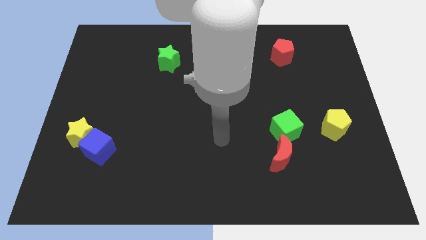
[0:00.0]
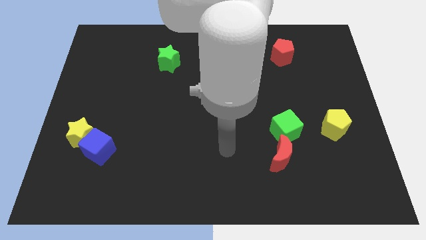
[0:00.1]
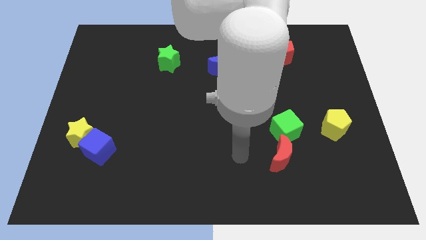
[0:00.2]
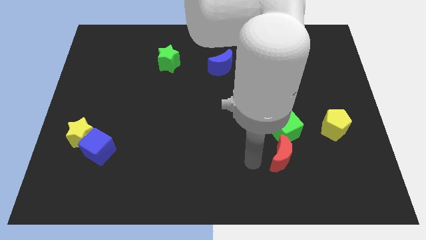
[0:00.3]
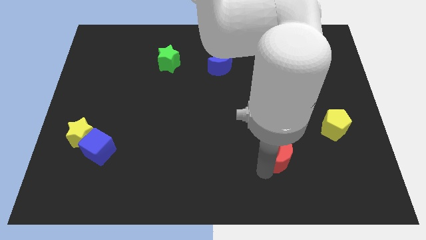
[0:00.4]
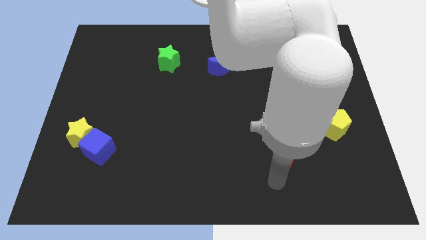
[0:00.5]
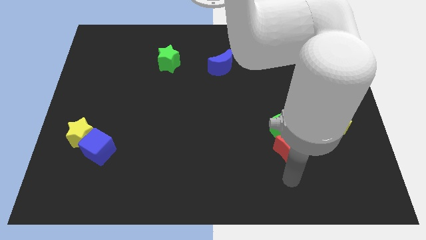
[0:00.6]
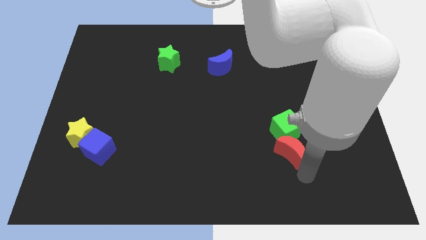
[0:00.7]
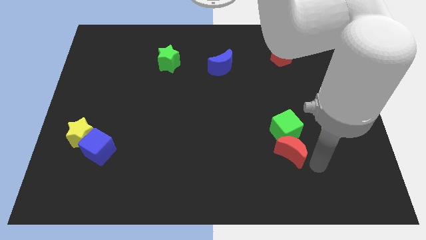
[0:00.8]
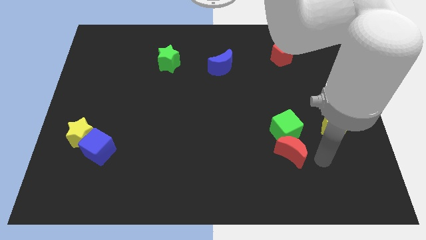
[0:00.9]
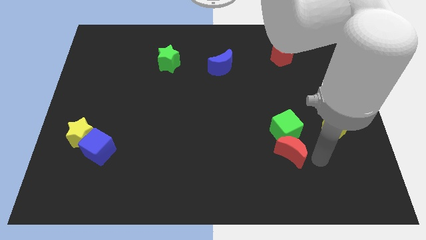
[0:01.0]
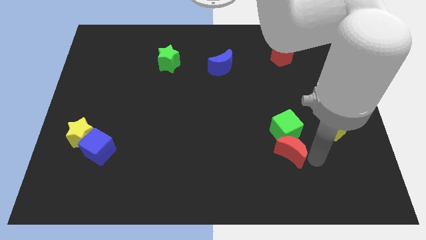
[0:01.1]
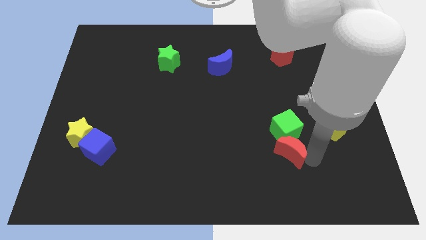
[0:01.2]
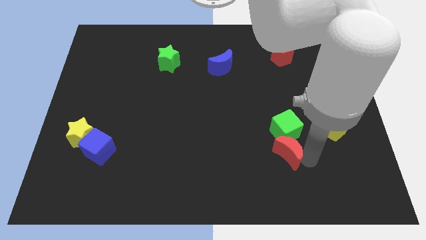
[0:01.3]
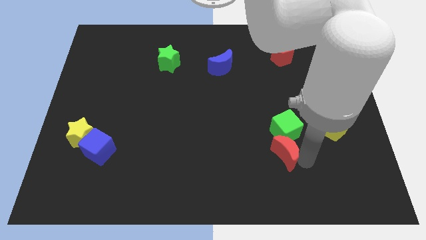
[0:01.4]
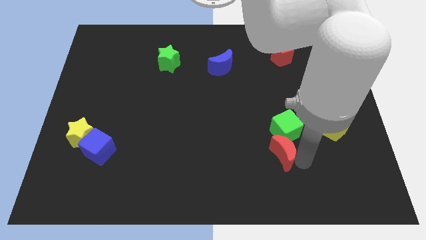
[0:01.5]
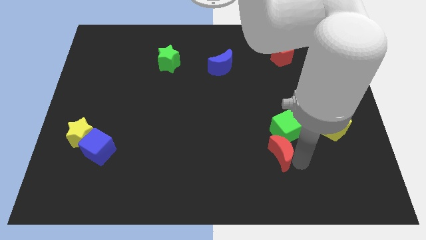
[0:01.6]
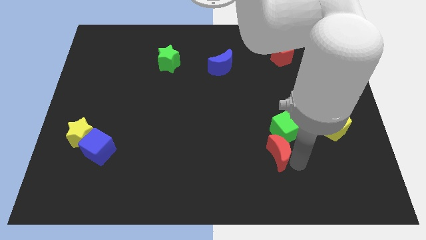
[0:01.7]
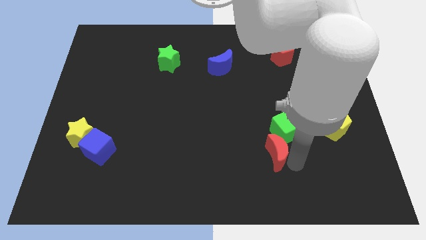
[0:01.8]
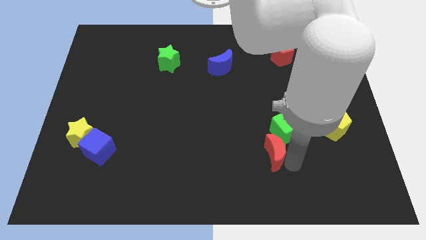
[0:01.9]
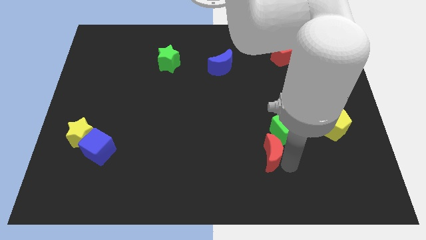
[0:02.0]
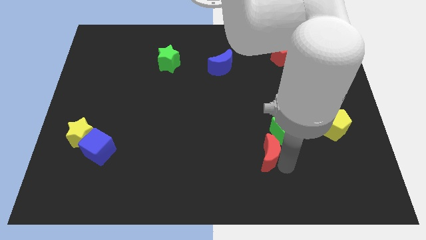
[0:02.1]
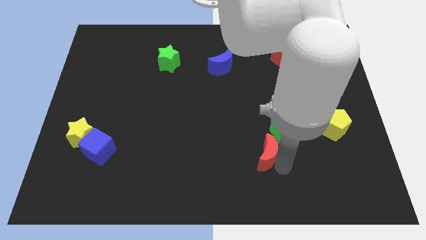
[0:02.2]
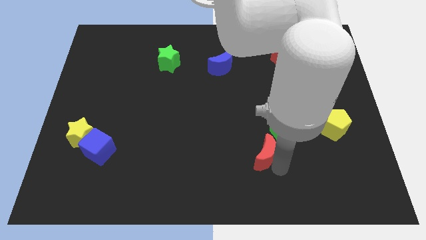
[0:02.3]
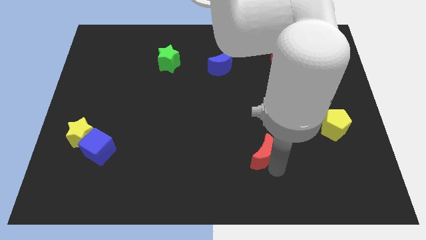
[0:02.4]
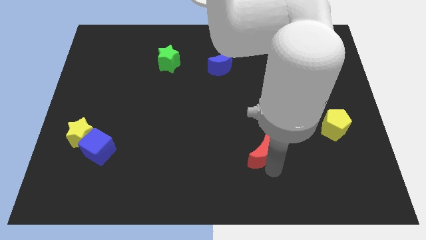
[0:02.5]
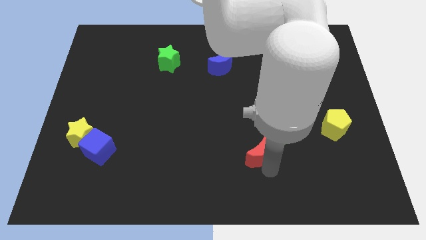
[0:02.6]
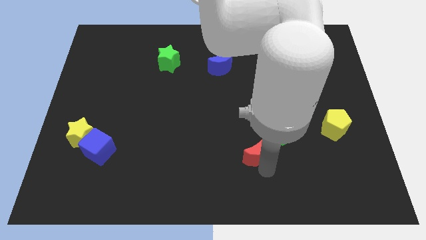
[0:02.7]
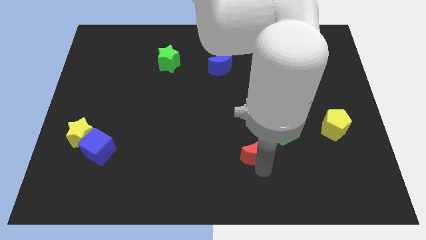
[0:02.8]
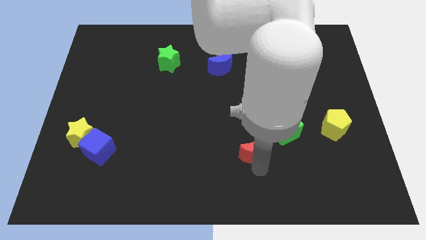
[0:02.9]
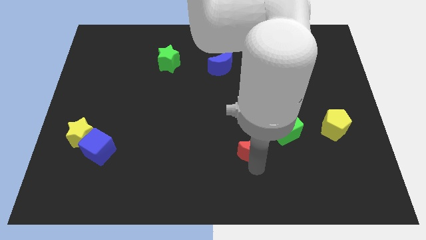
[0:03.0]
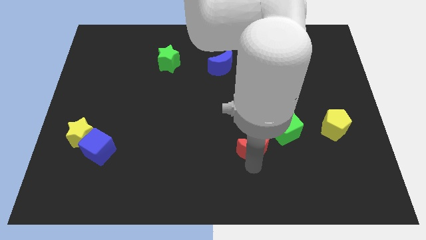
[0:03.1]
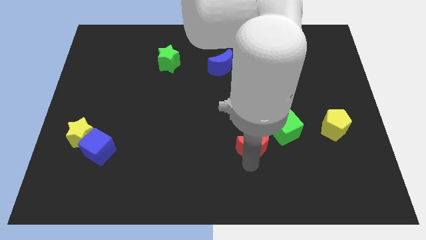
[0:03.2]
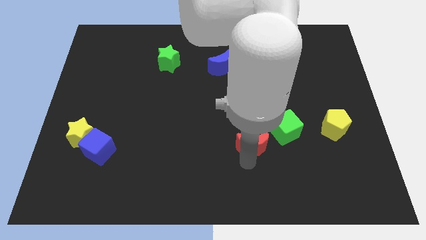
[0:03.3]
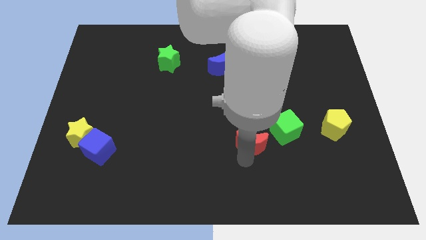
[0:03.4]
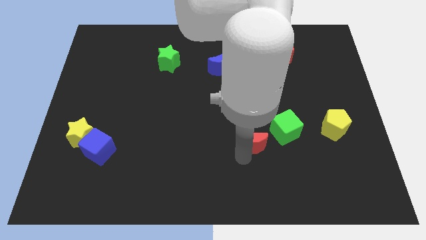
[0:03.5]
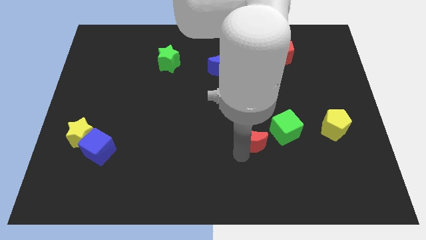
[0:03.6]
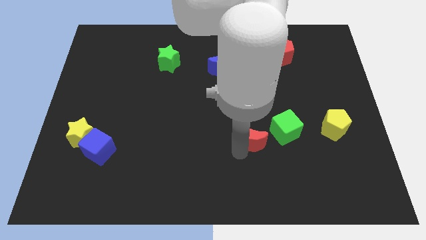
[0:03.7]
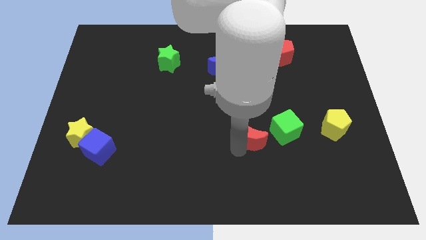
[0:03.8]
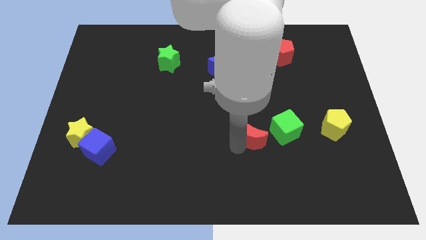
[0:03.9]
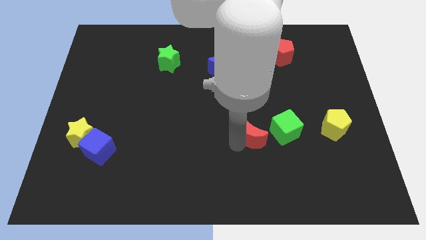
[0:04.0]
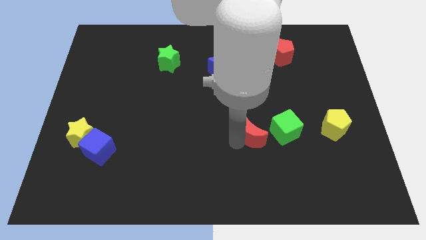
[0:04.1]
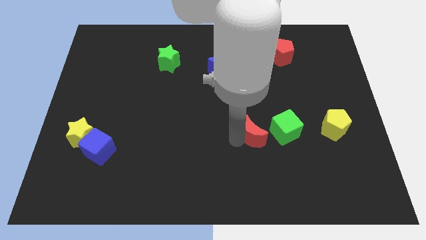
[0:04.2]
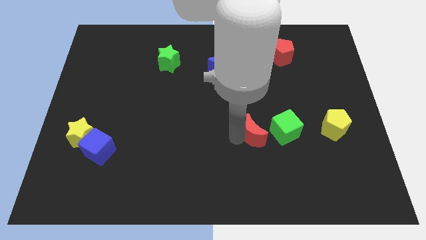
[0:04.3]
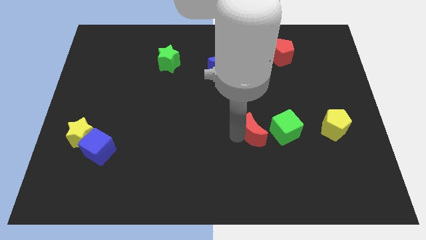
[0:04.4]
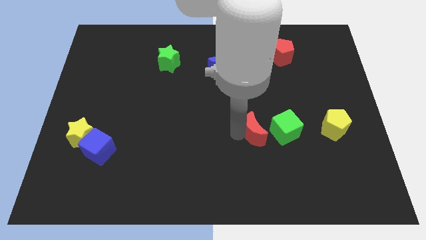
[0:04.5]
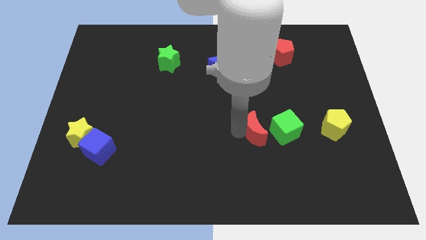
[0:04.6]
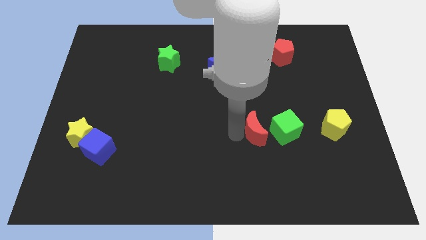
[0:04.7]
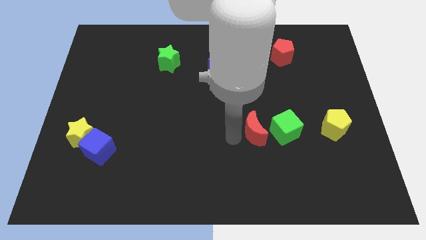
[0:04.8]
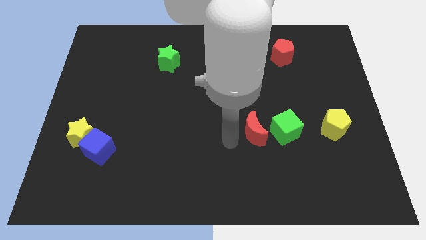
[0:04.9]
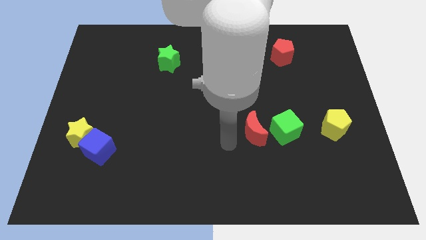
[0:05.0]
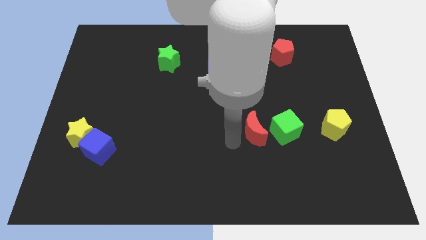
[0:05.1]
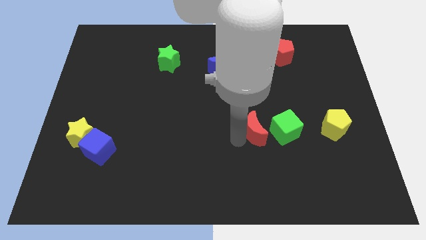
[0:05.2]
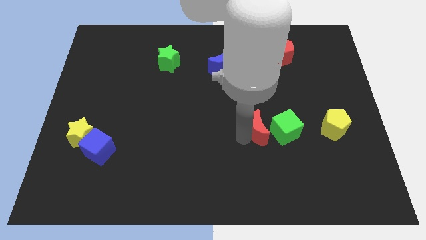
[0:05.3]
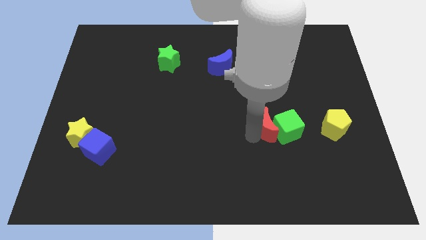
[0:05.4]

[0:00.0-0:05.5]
slightly slide the red moon upwards

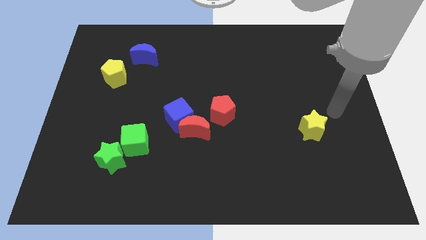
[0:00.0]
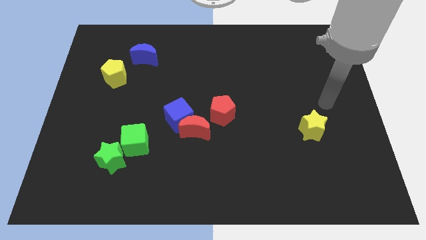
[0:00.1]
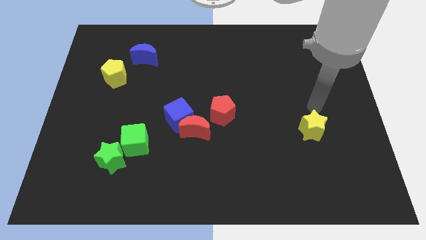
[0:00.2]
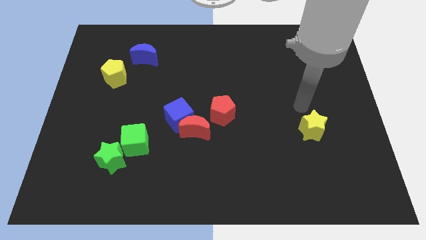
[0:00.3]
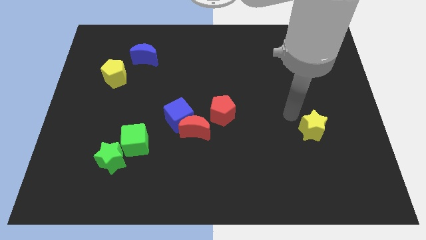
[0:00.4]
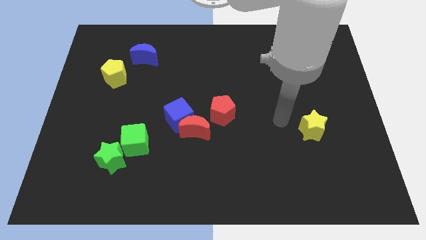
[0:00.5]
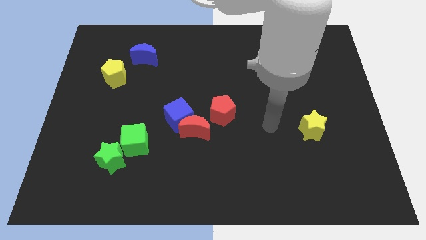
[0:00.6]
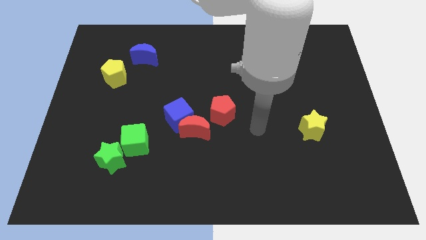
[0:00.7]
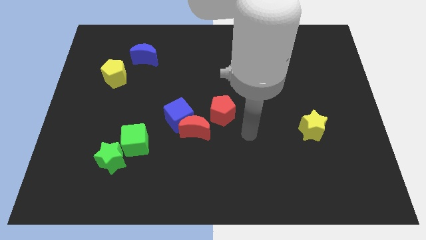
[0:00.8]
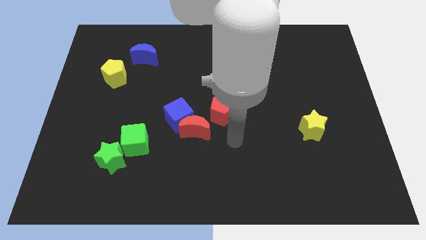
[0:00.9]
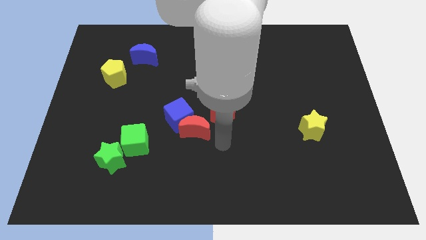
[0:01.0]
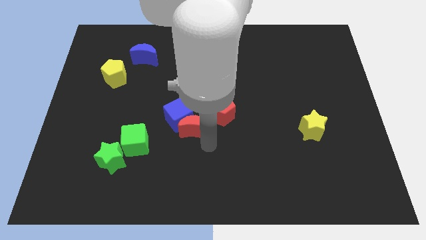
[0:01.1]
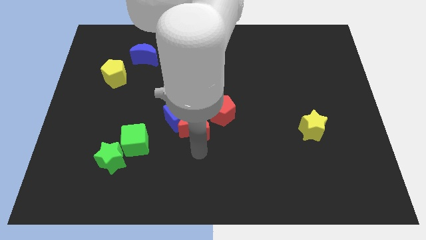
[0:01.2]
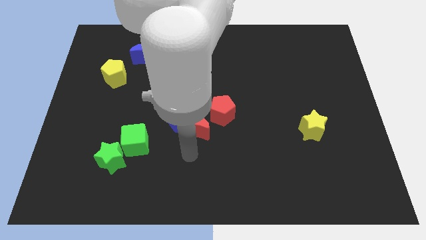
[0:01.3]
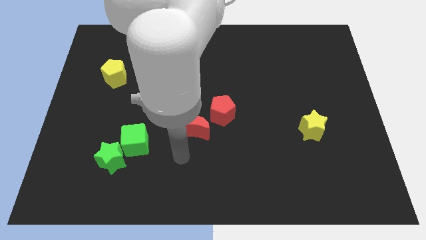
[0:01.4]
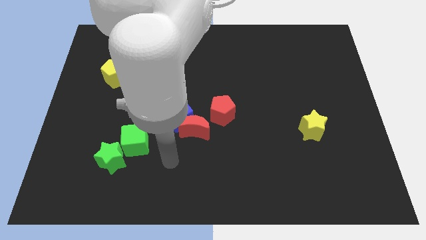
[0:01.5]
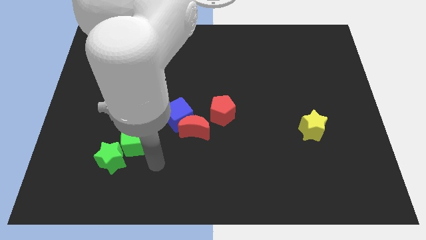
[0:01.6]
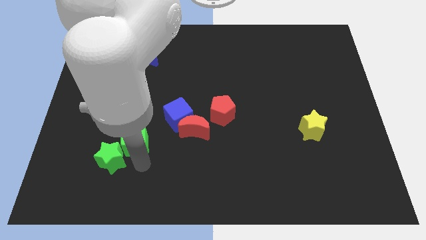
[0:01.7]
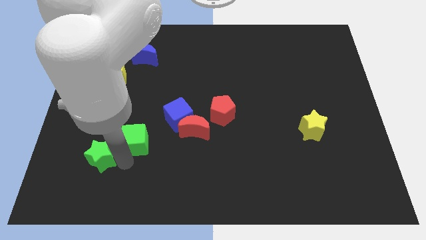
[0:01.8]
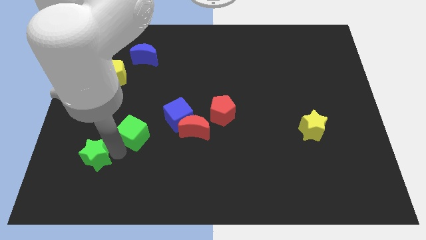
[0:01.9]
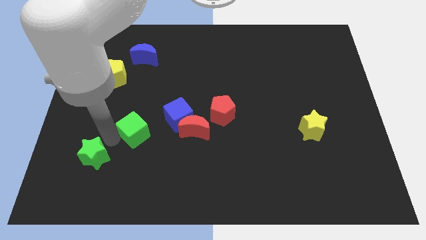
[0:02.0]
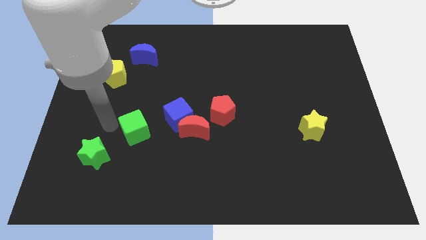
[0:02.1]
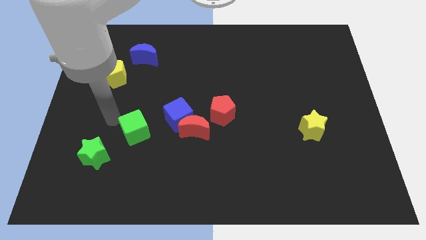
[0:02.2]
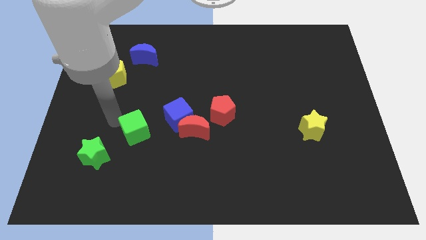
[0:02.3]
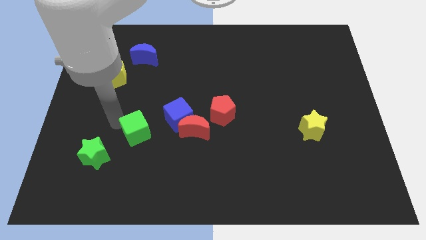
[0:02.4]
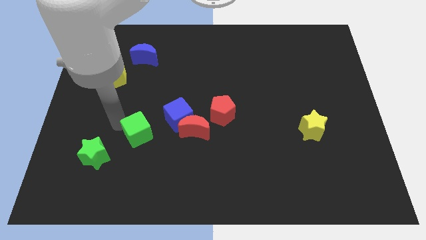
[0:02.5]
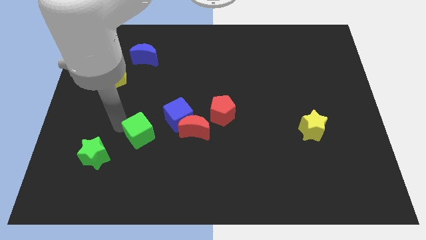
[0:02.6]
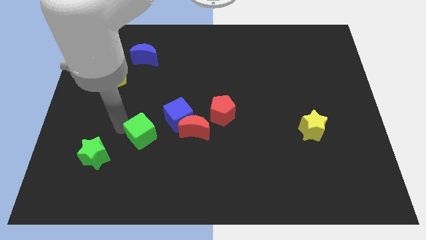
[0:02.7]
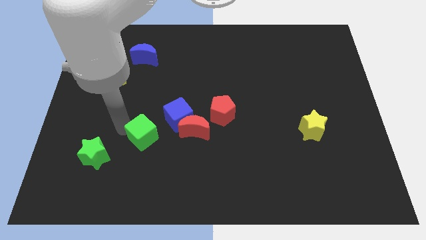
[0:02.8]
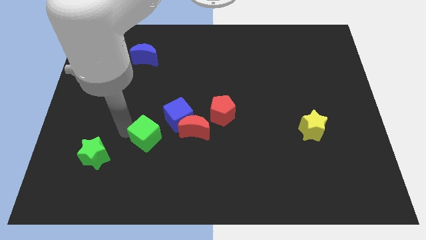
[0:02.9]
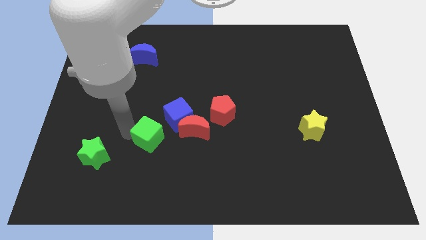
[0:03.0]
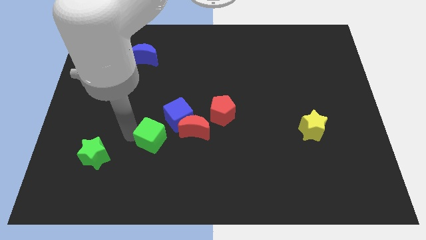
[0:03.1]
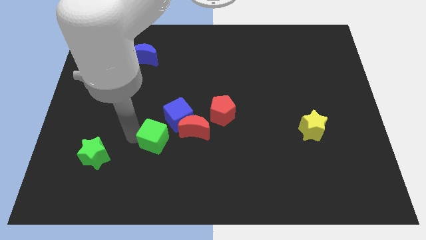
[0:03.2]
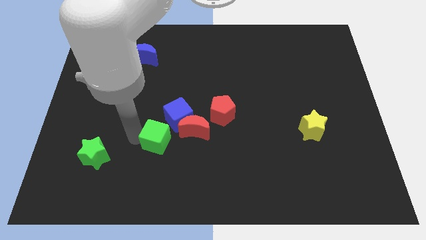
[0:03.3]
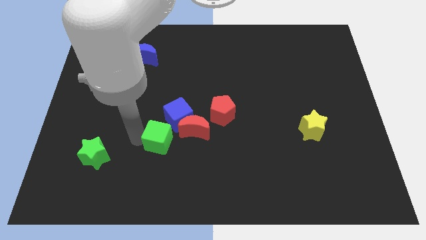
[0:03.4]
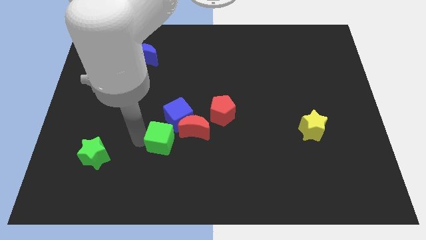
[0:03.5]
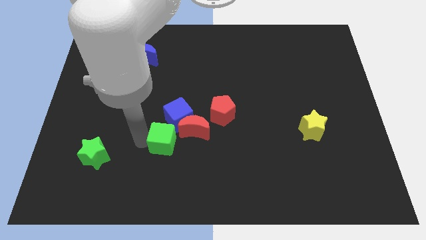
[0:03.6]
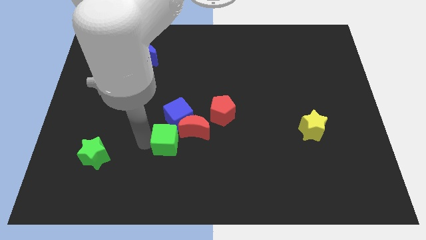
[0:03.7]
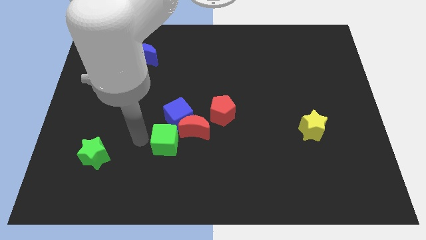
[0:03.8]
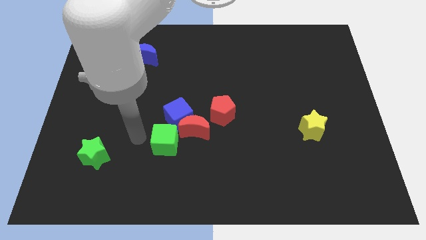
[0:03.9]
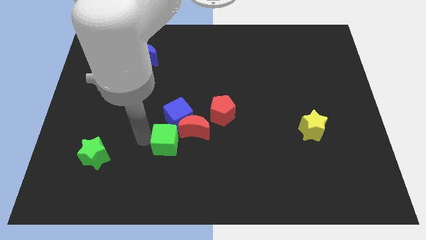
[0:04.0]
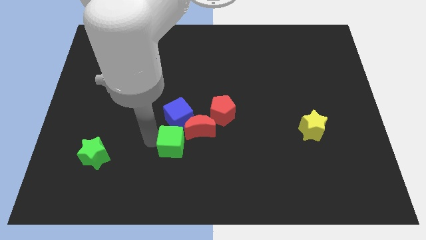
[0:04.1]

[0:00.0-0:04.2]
slightly slide the green cube right
